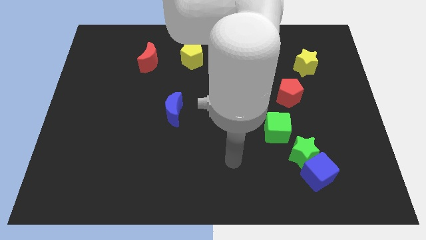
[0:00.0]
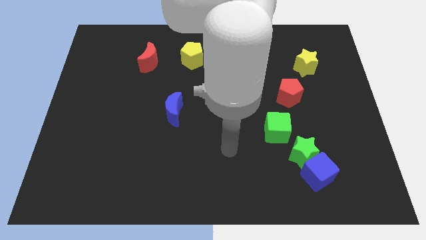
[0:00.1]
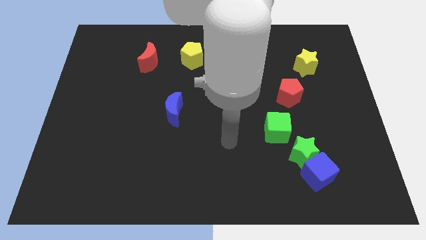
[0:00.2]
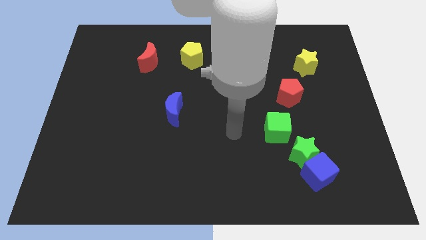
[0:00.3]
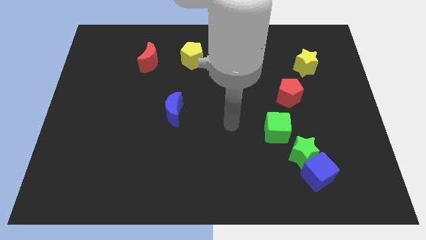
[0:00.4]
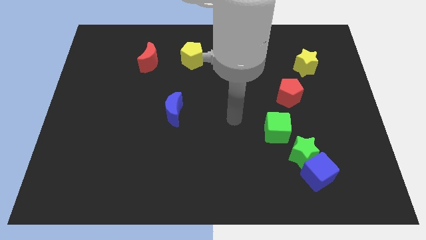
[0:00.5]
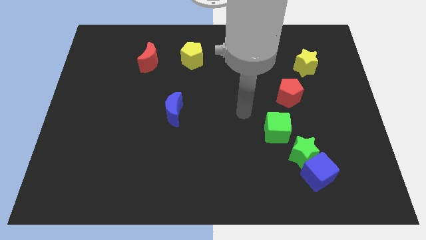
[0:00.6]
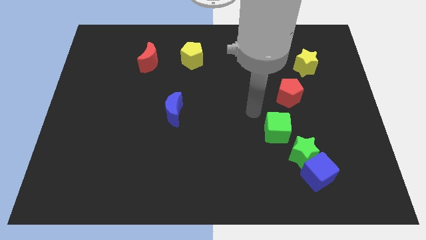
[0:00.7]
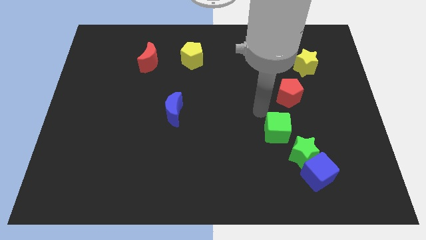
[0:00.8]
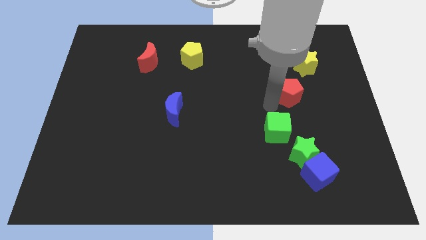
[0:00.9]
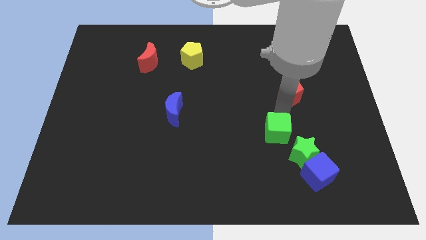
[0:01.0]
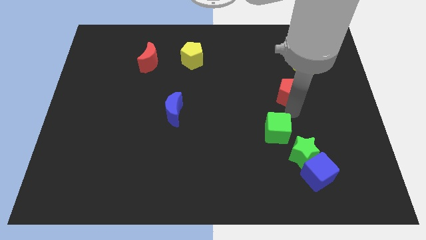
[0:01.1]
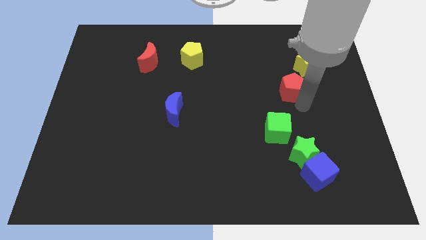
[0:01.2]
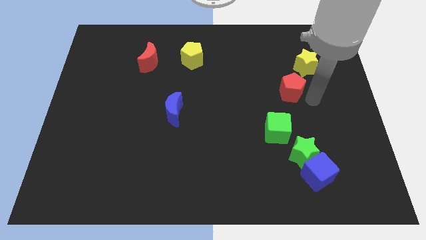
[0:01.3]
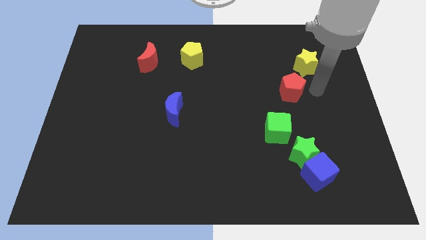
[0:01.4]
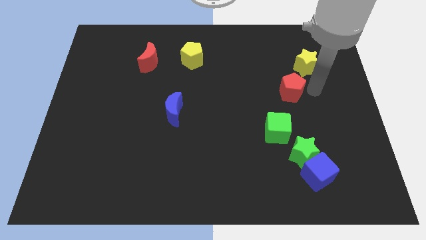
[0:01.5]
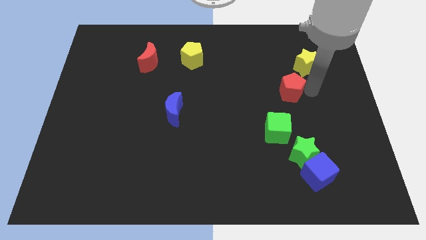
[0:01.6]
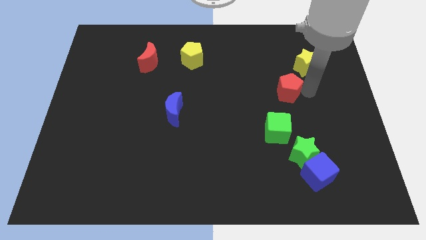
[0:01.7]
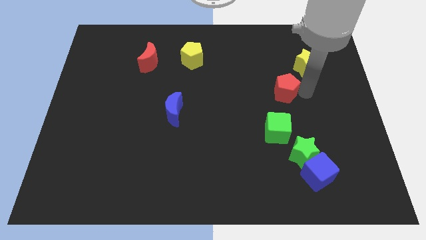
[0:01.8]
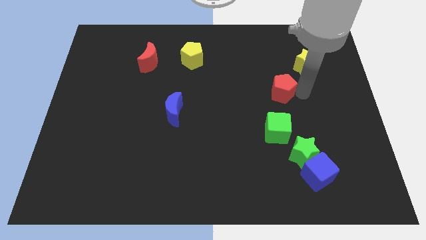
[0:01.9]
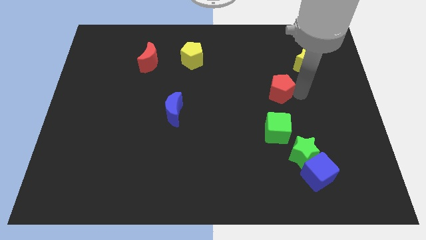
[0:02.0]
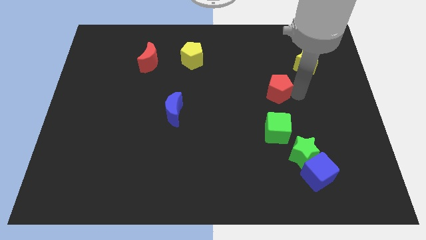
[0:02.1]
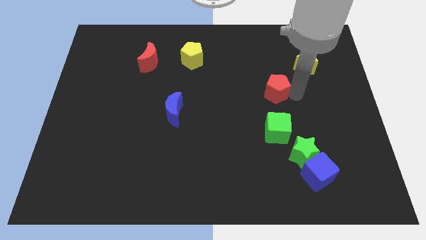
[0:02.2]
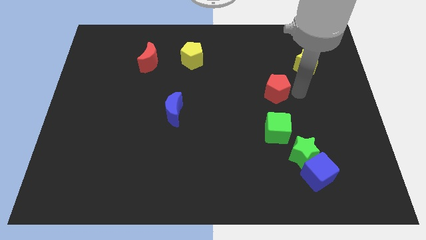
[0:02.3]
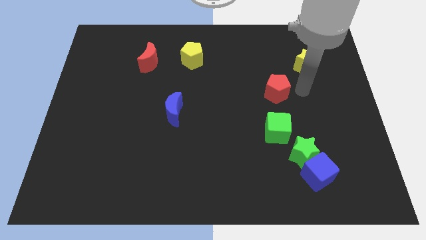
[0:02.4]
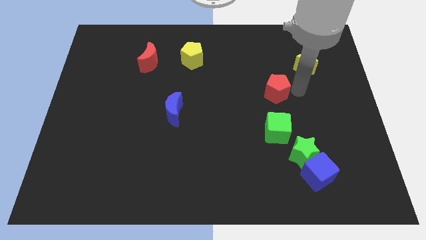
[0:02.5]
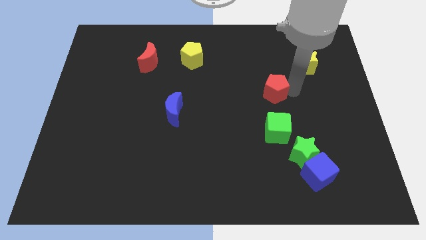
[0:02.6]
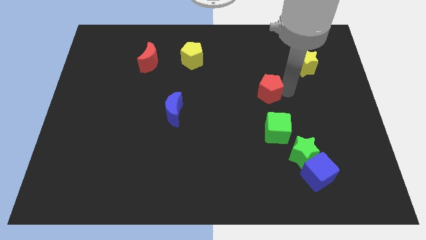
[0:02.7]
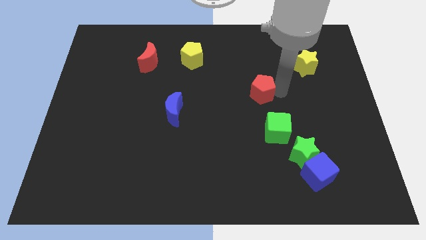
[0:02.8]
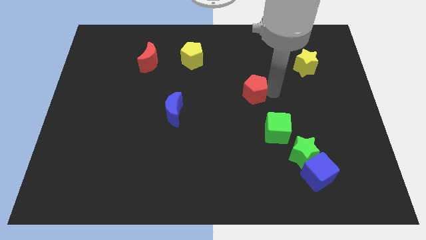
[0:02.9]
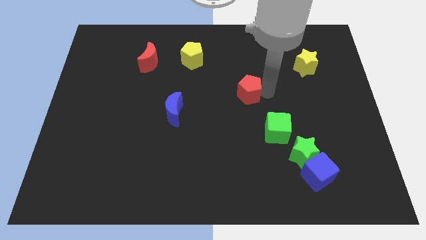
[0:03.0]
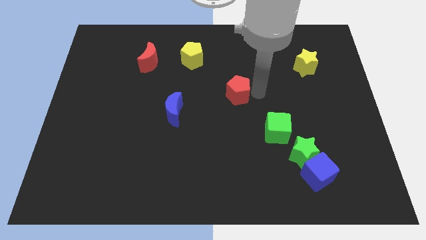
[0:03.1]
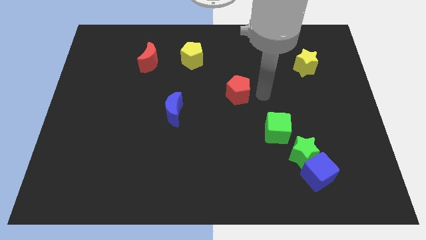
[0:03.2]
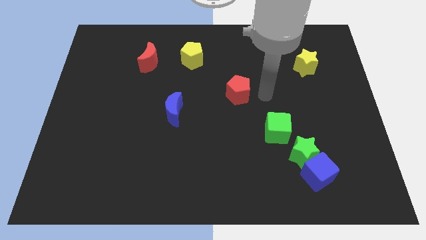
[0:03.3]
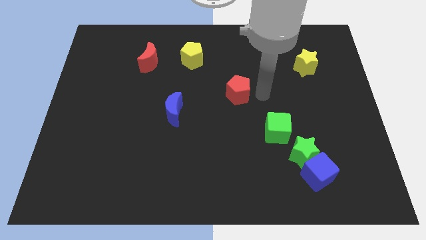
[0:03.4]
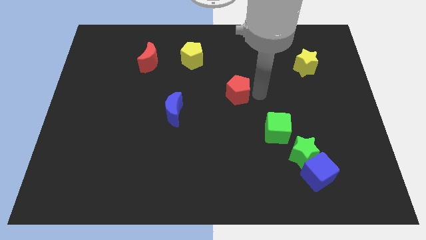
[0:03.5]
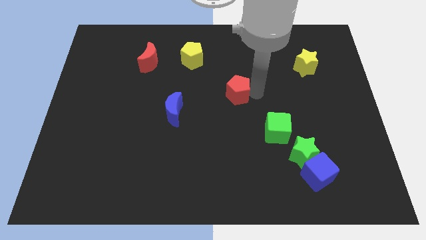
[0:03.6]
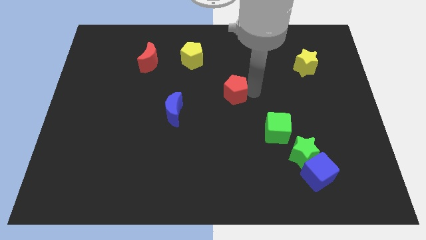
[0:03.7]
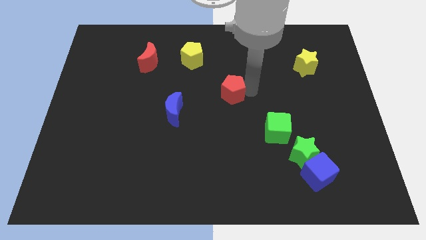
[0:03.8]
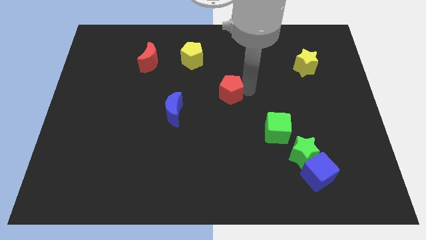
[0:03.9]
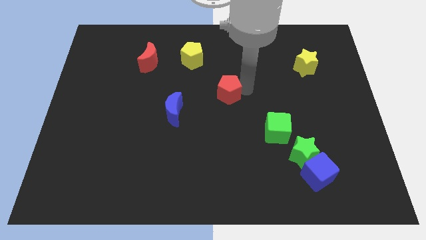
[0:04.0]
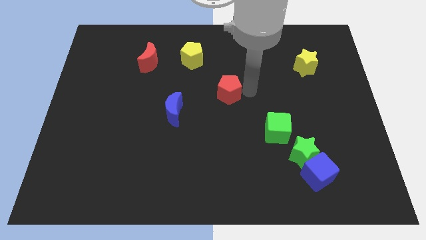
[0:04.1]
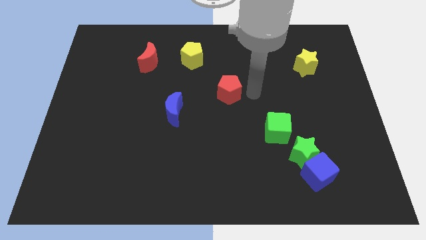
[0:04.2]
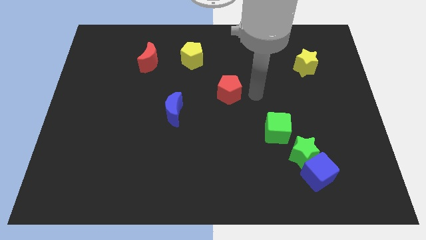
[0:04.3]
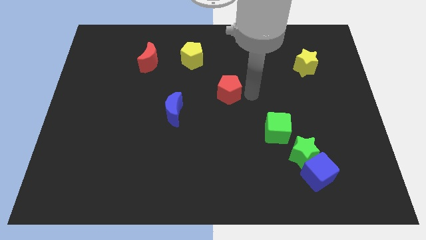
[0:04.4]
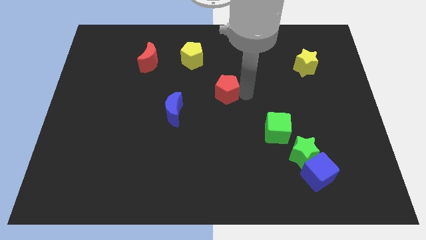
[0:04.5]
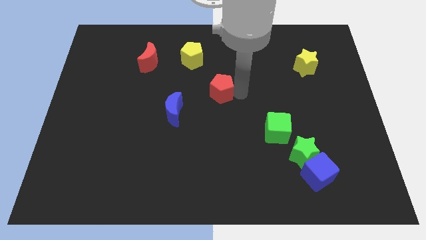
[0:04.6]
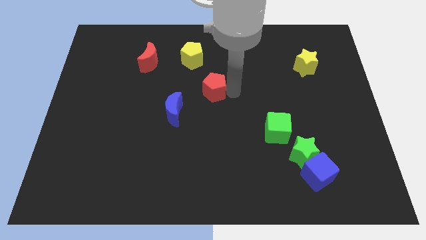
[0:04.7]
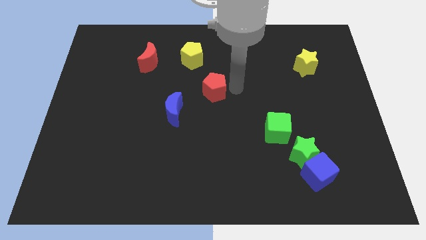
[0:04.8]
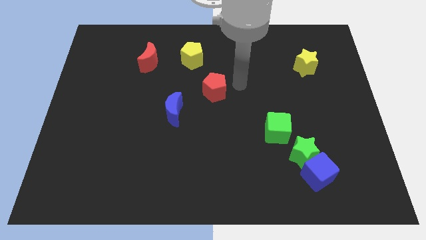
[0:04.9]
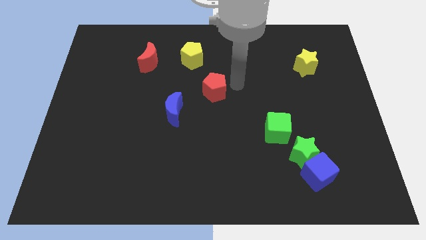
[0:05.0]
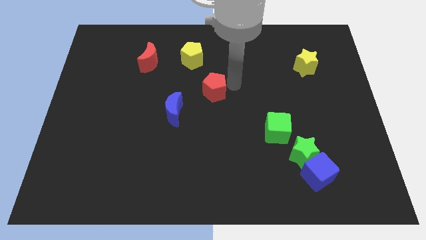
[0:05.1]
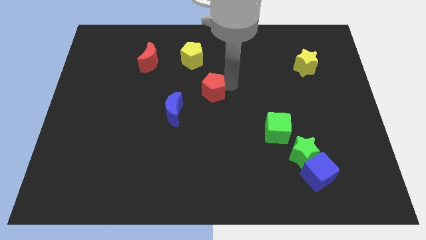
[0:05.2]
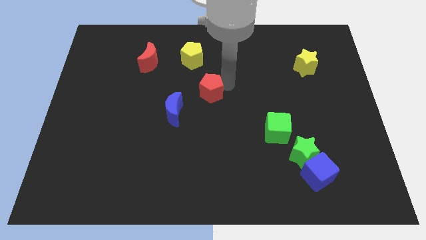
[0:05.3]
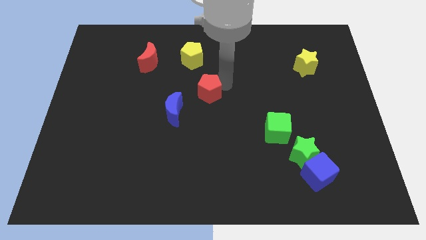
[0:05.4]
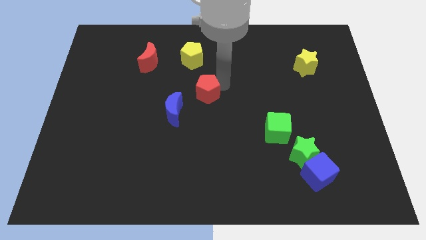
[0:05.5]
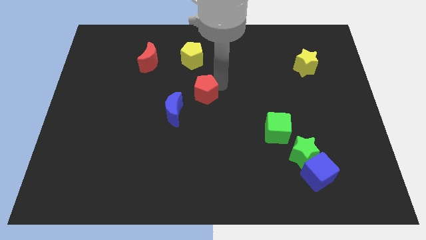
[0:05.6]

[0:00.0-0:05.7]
slide the red pentagon left

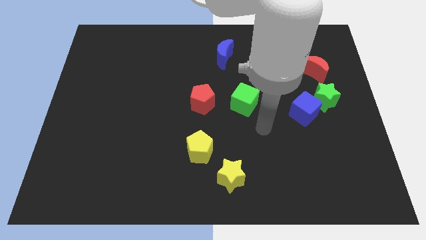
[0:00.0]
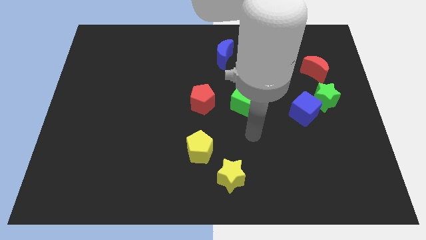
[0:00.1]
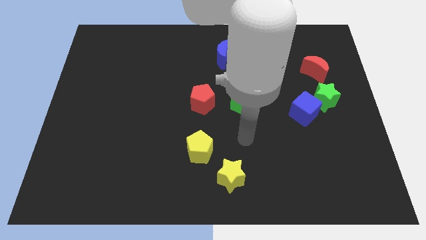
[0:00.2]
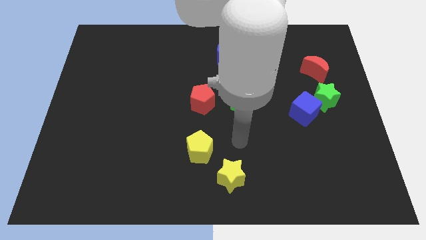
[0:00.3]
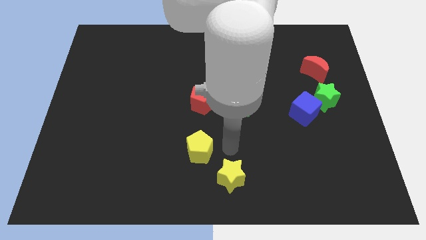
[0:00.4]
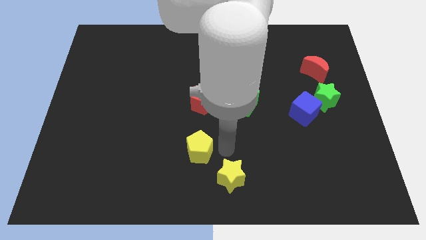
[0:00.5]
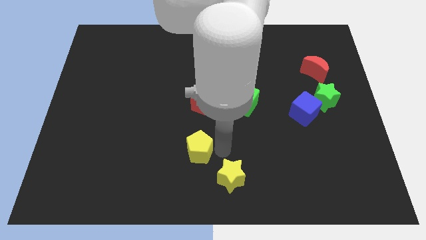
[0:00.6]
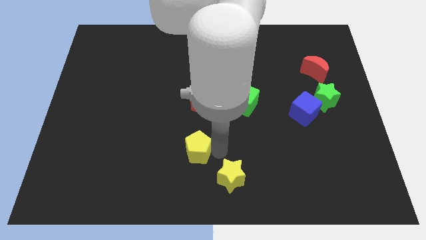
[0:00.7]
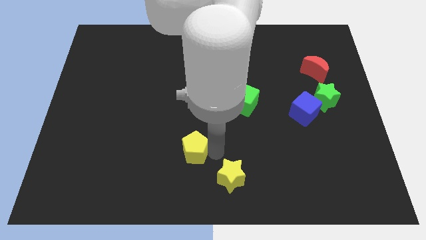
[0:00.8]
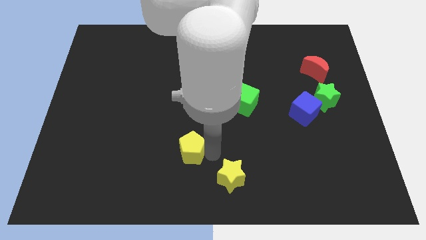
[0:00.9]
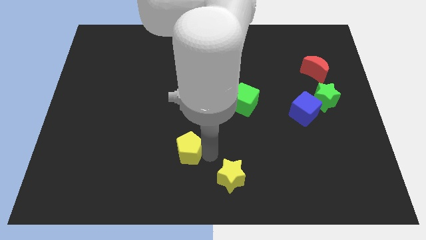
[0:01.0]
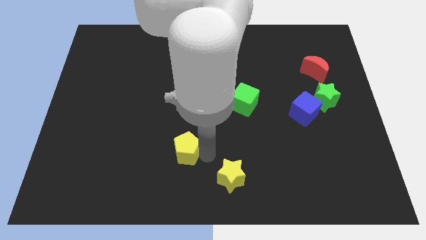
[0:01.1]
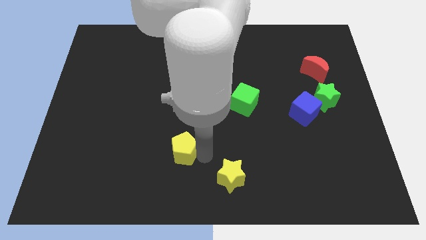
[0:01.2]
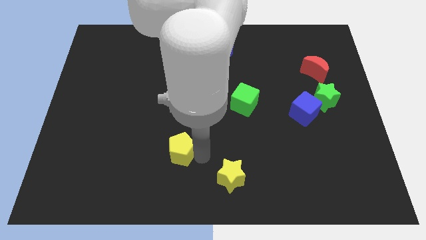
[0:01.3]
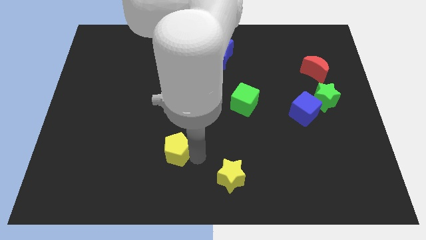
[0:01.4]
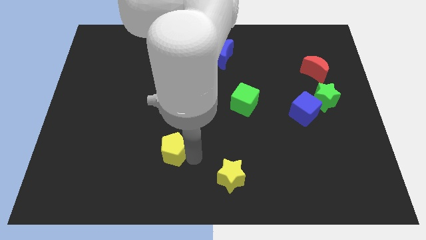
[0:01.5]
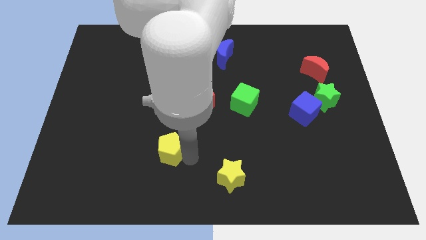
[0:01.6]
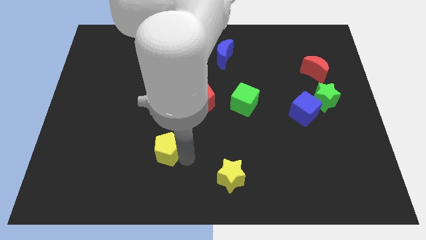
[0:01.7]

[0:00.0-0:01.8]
move the yellow pentagon a little bit left

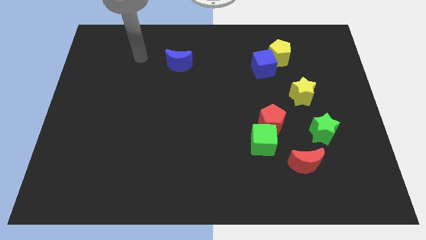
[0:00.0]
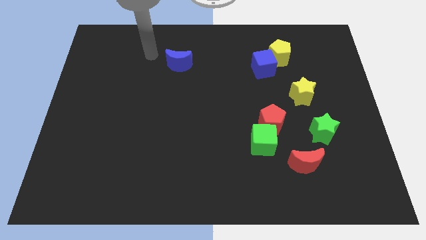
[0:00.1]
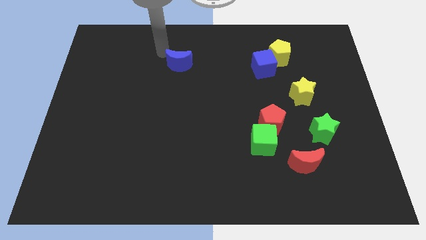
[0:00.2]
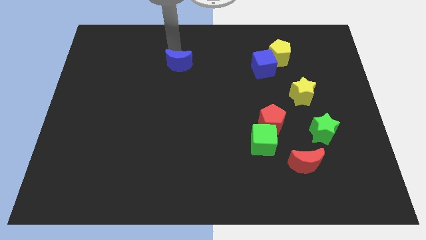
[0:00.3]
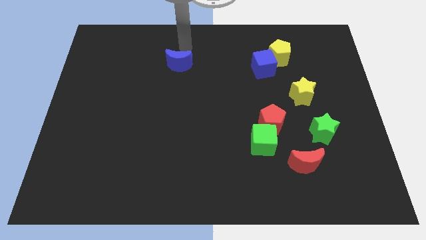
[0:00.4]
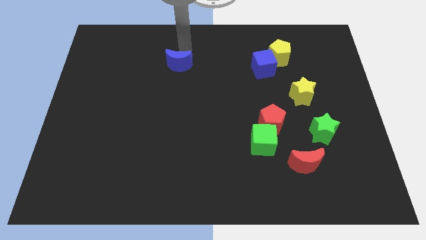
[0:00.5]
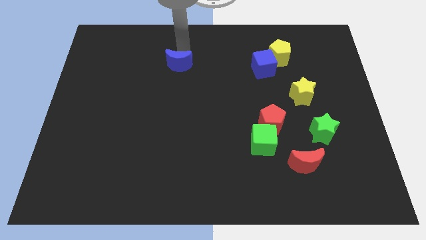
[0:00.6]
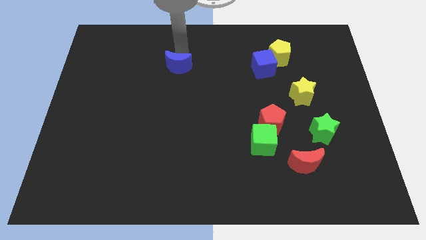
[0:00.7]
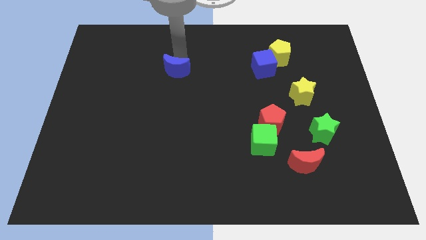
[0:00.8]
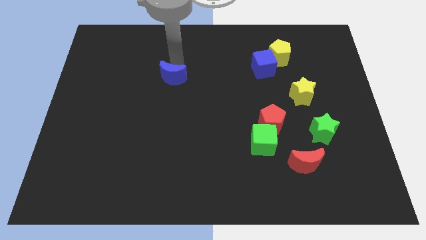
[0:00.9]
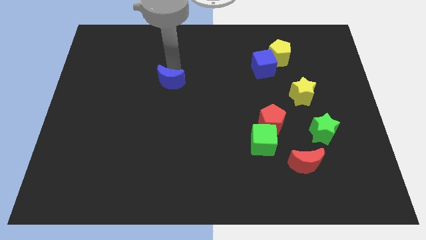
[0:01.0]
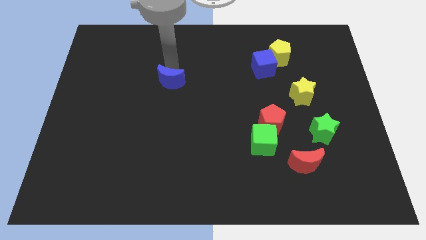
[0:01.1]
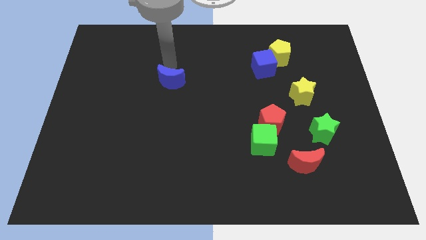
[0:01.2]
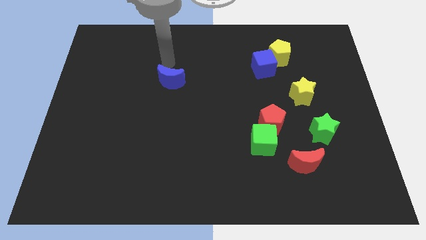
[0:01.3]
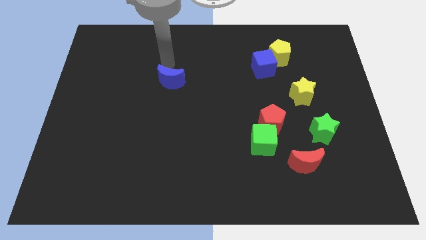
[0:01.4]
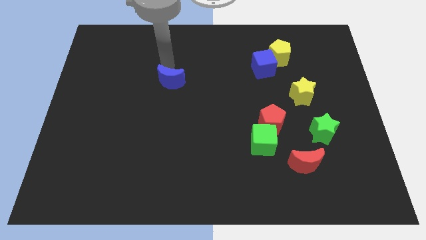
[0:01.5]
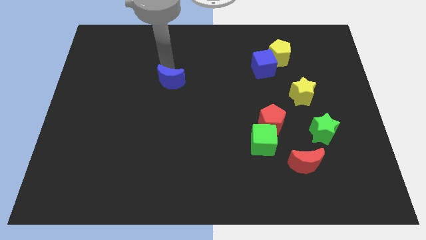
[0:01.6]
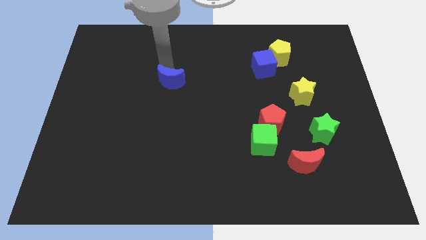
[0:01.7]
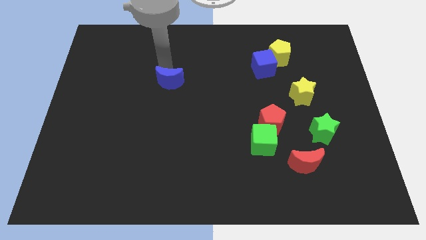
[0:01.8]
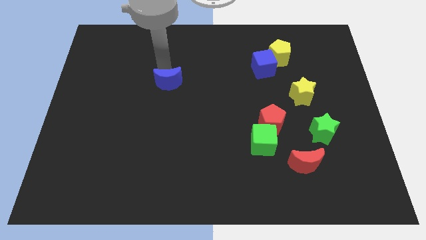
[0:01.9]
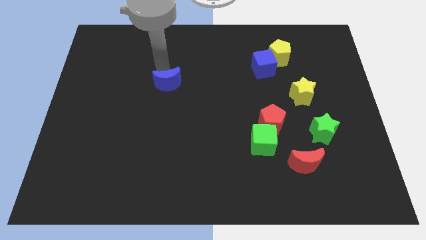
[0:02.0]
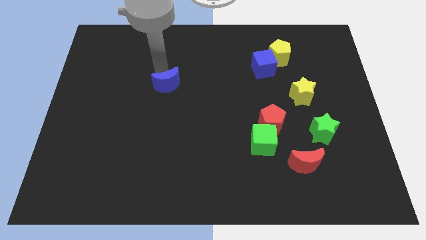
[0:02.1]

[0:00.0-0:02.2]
slide the blue moon a little bit downwards
